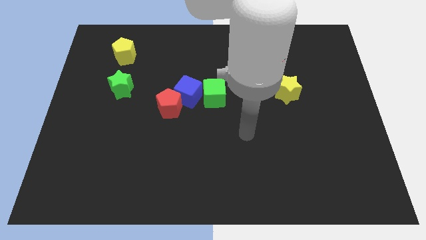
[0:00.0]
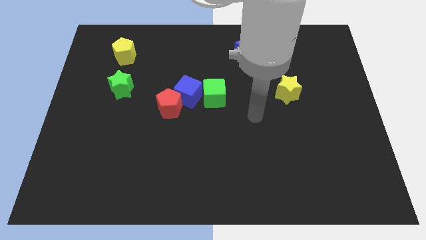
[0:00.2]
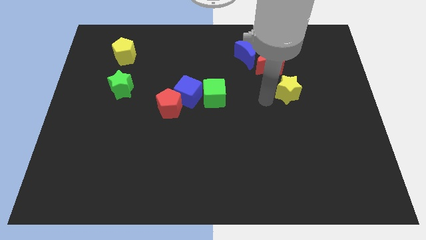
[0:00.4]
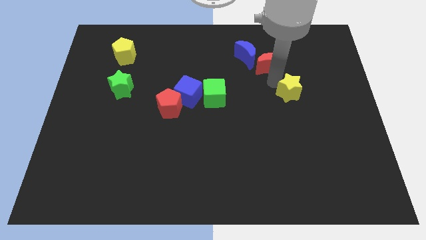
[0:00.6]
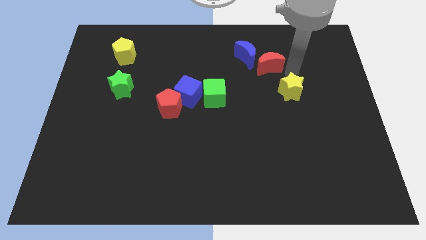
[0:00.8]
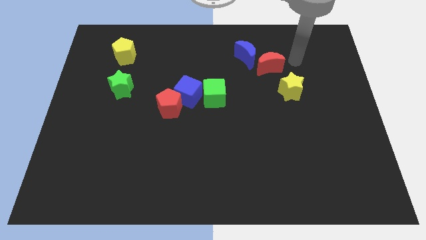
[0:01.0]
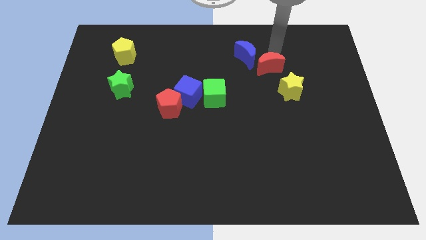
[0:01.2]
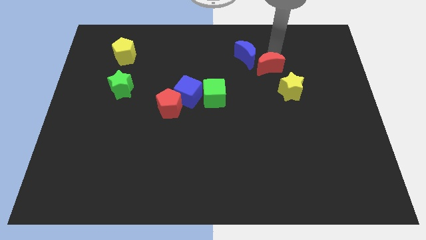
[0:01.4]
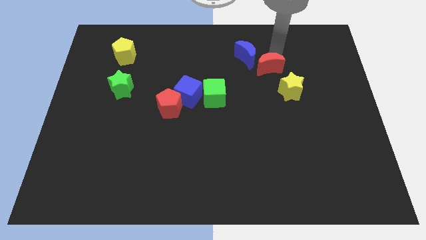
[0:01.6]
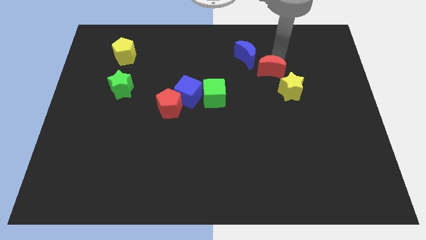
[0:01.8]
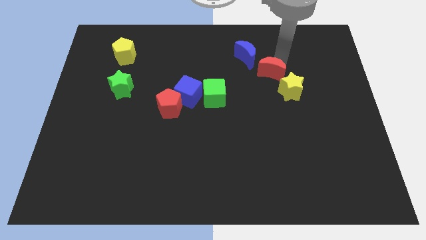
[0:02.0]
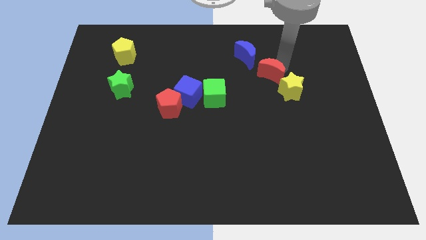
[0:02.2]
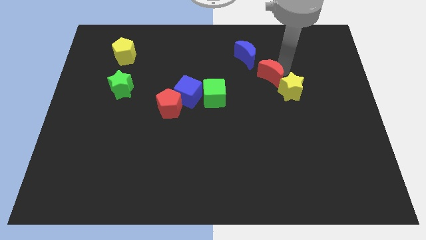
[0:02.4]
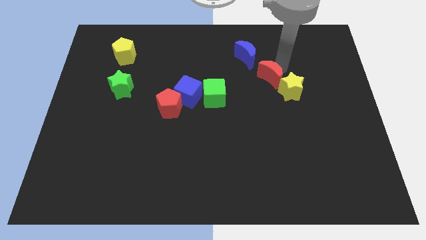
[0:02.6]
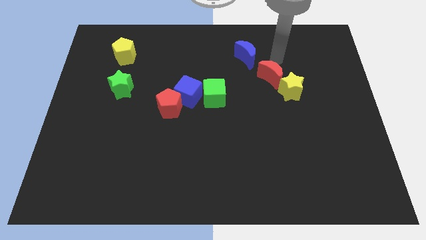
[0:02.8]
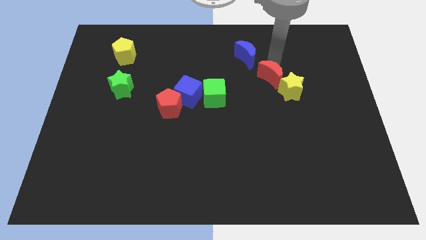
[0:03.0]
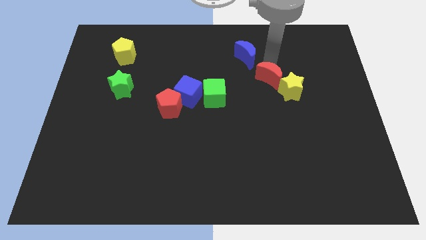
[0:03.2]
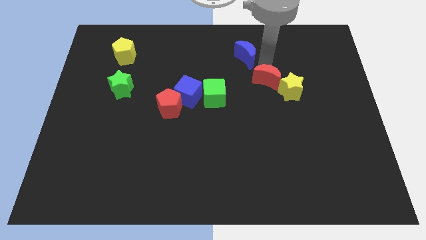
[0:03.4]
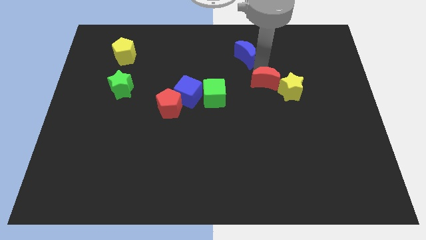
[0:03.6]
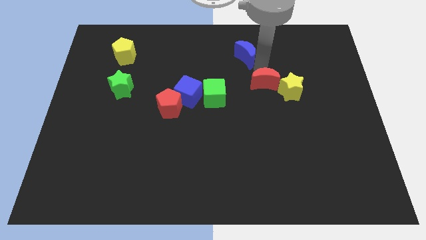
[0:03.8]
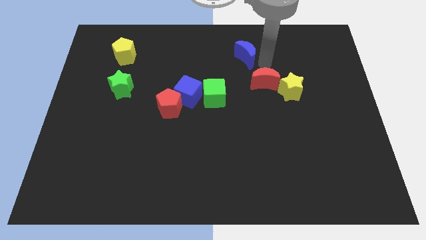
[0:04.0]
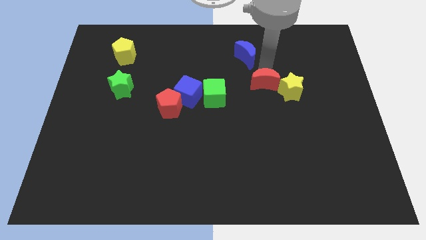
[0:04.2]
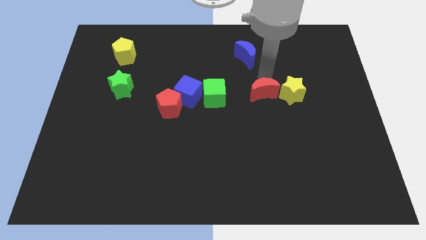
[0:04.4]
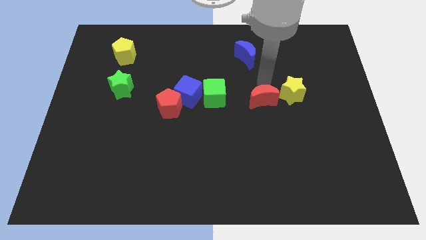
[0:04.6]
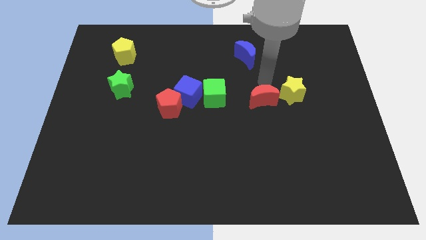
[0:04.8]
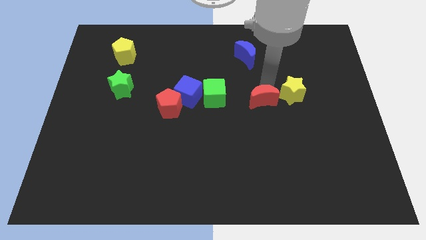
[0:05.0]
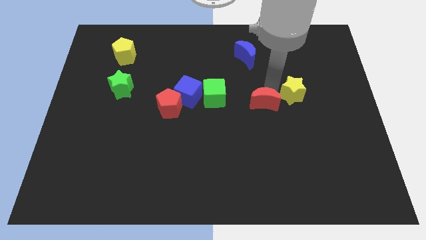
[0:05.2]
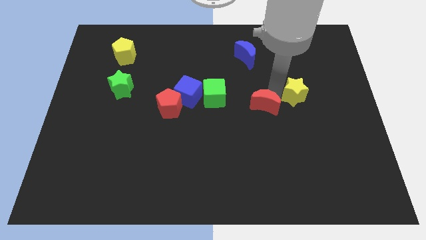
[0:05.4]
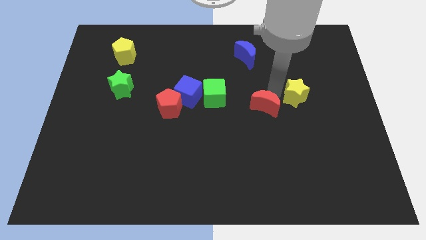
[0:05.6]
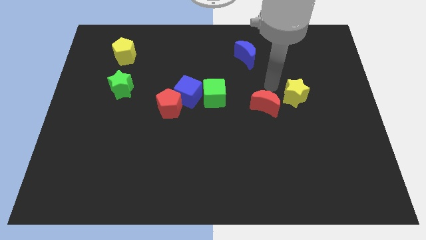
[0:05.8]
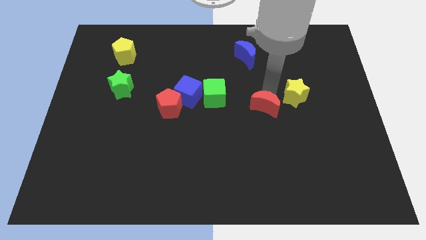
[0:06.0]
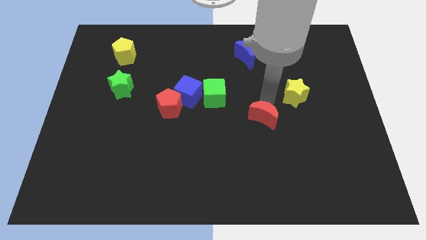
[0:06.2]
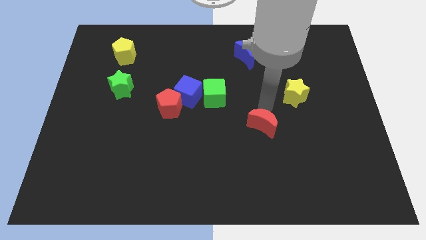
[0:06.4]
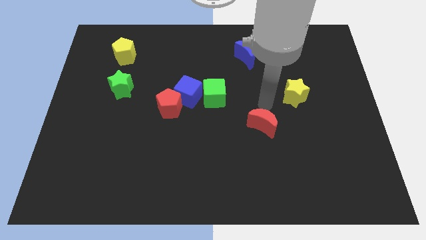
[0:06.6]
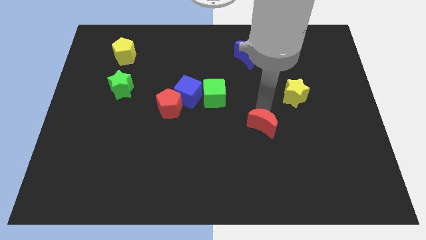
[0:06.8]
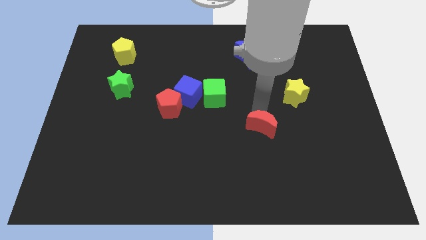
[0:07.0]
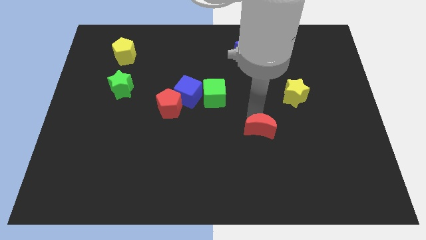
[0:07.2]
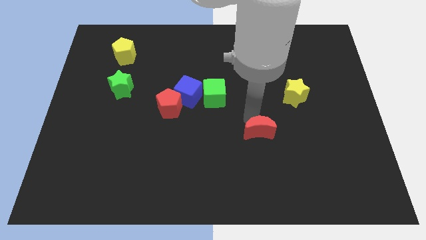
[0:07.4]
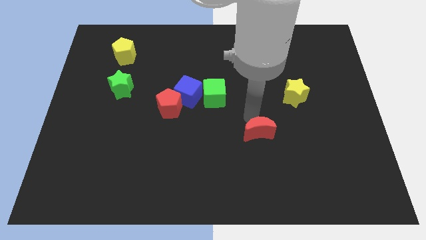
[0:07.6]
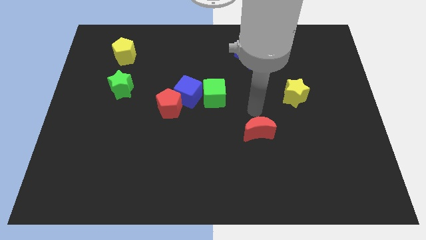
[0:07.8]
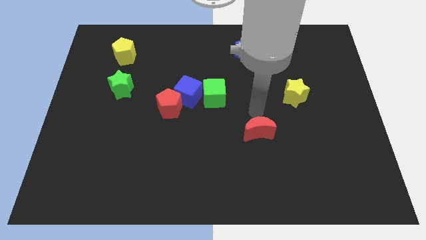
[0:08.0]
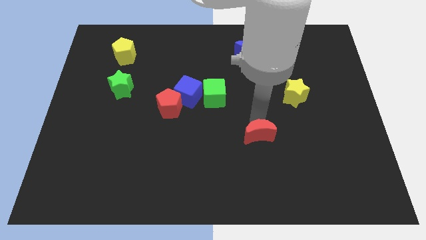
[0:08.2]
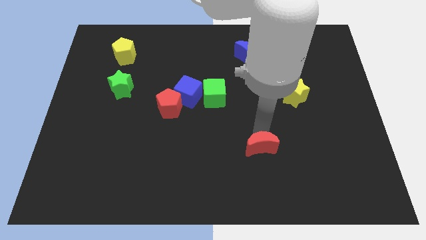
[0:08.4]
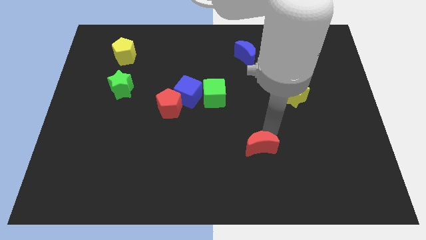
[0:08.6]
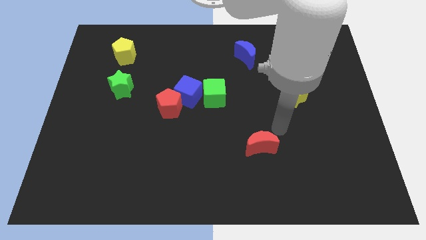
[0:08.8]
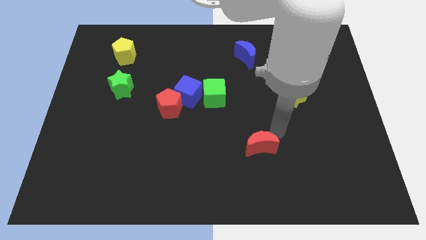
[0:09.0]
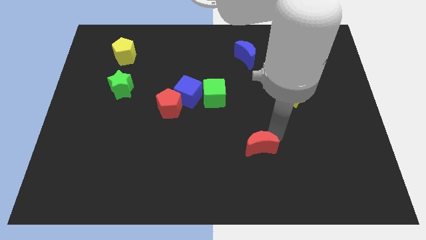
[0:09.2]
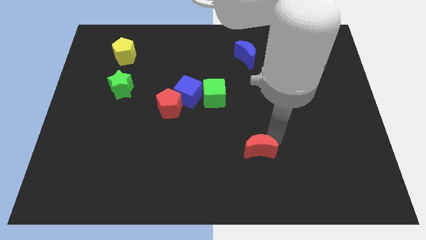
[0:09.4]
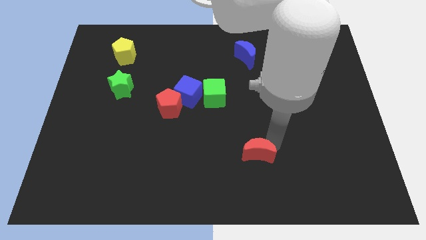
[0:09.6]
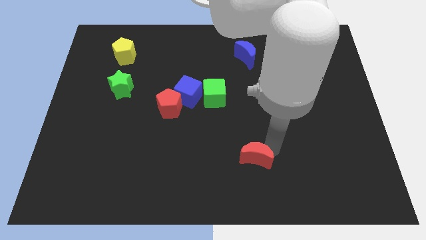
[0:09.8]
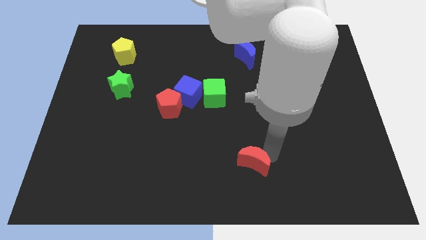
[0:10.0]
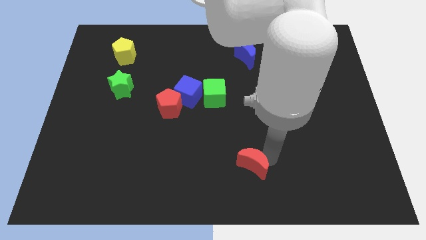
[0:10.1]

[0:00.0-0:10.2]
slide the red moon to the bottom

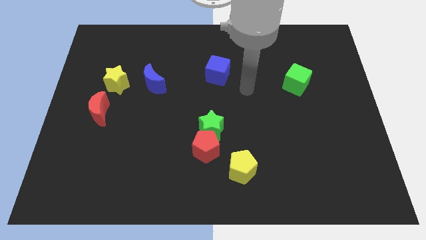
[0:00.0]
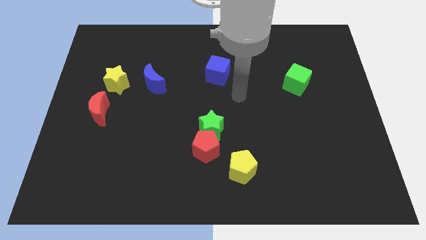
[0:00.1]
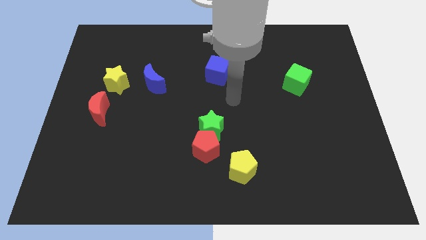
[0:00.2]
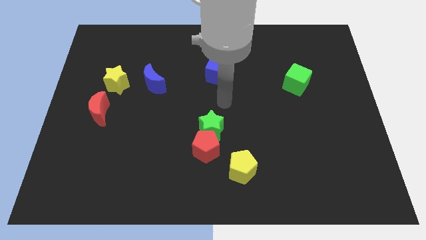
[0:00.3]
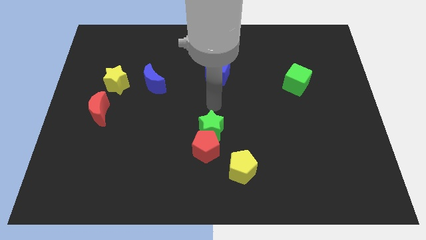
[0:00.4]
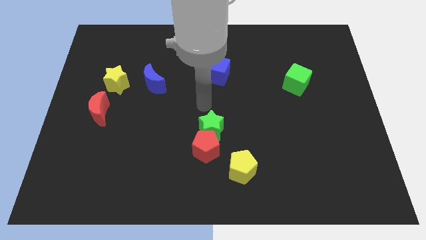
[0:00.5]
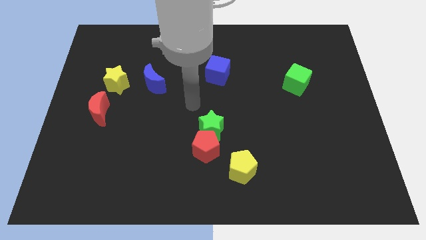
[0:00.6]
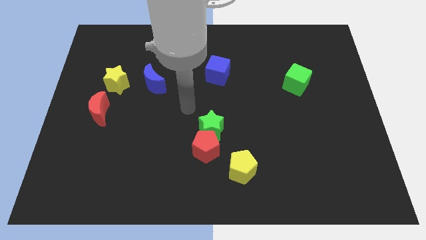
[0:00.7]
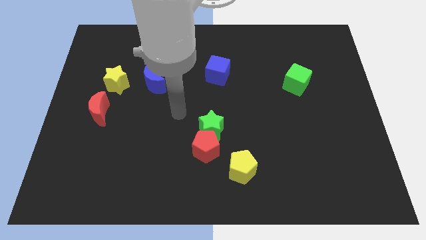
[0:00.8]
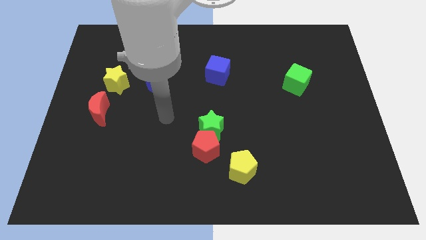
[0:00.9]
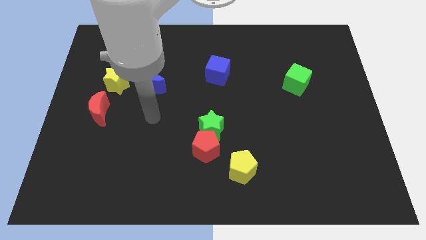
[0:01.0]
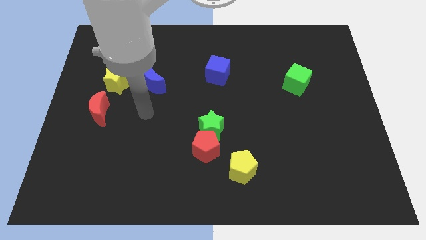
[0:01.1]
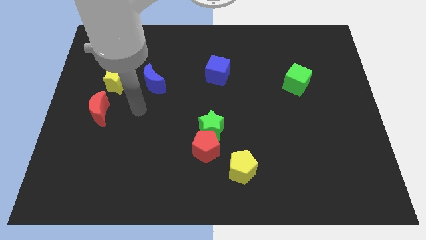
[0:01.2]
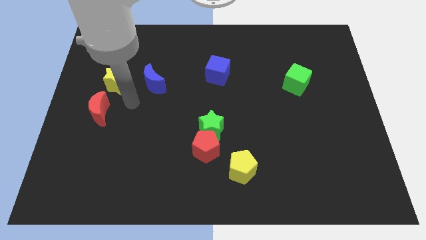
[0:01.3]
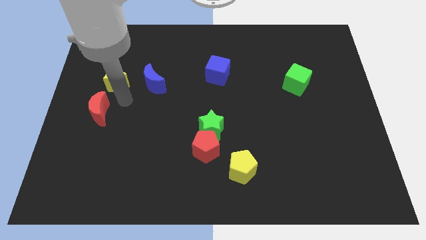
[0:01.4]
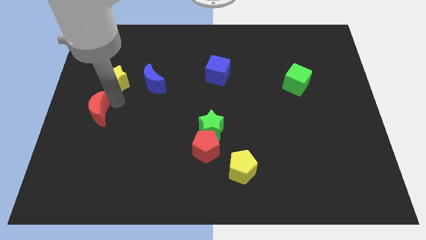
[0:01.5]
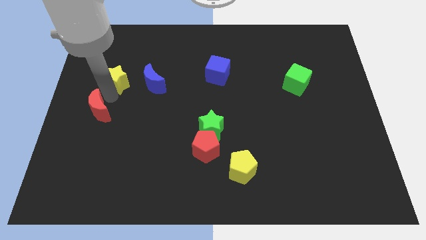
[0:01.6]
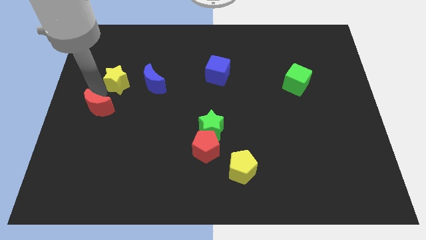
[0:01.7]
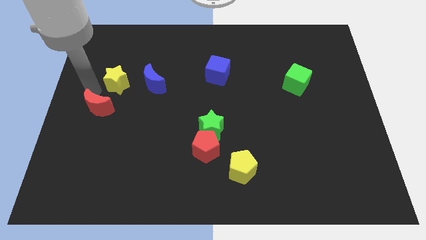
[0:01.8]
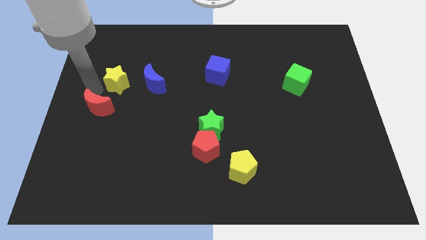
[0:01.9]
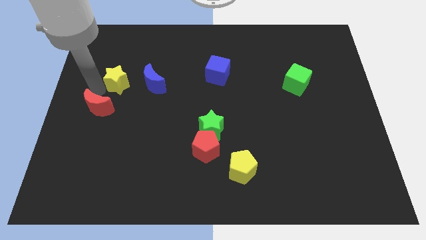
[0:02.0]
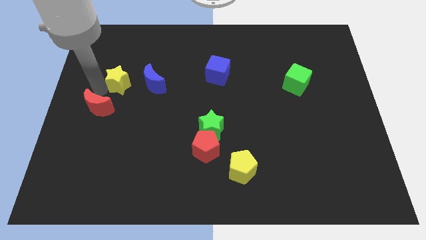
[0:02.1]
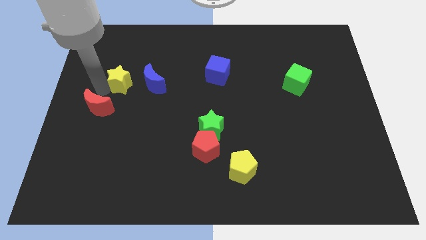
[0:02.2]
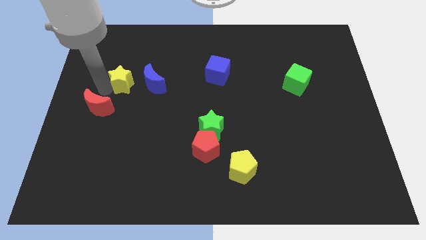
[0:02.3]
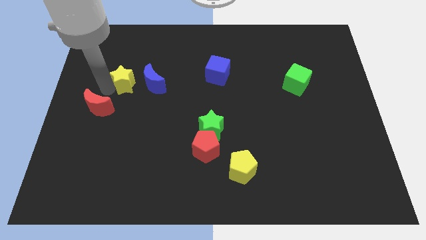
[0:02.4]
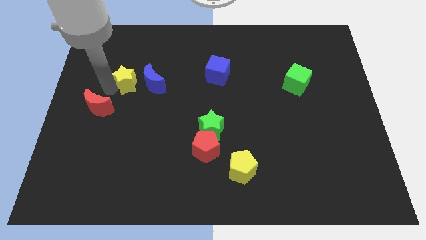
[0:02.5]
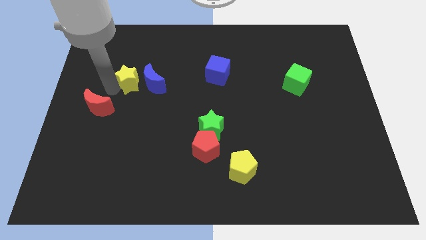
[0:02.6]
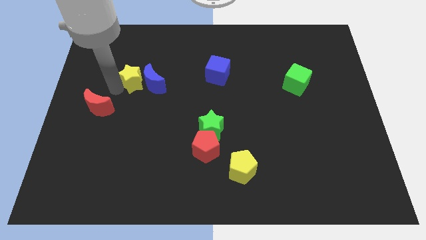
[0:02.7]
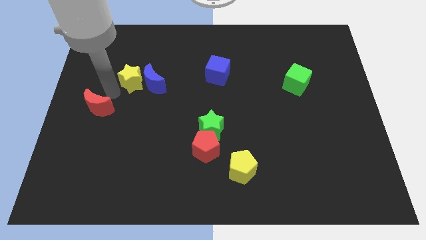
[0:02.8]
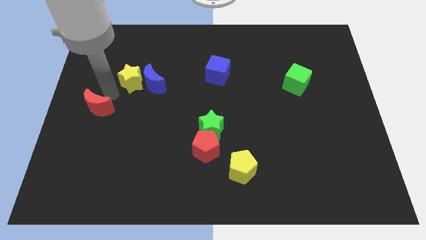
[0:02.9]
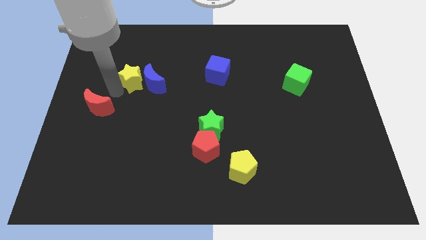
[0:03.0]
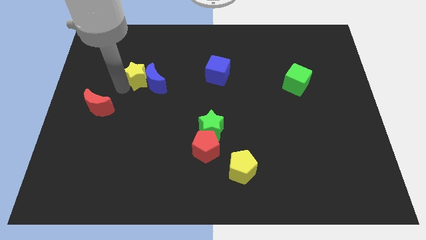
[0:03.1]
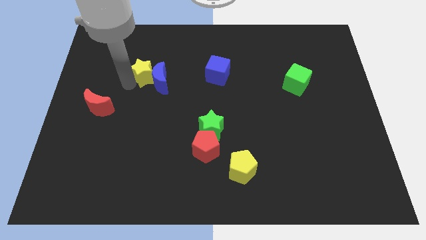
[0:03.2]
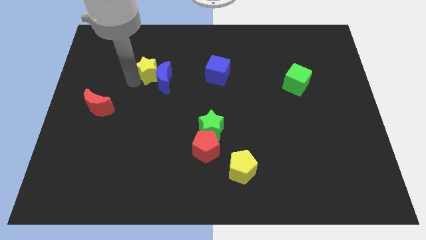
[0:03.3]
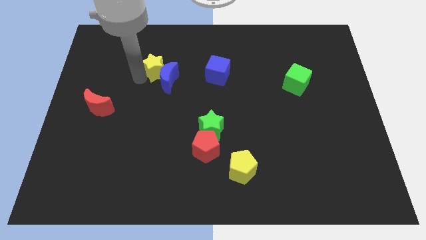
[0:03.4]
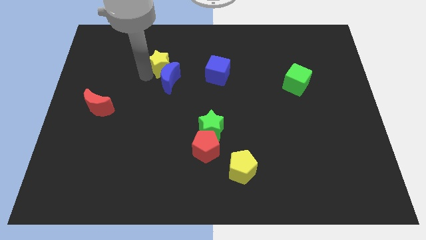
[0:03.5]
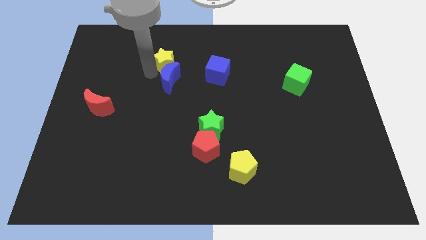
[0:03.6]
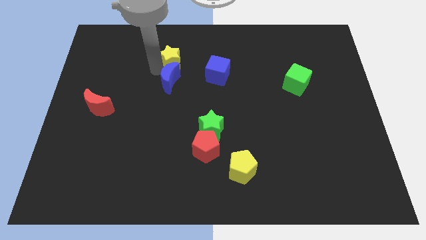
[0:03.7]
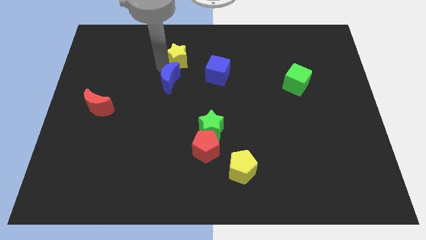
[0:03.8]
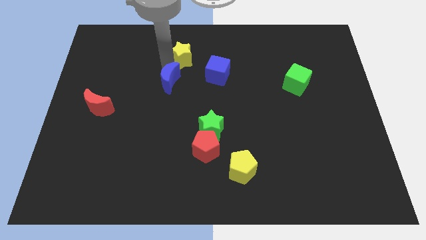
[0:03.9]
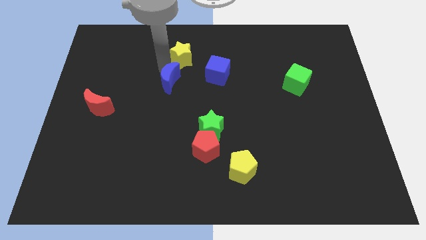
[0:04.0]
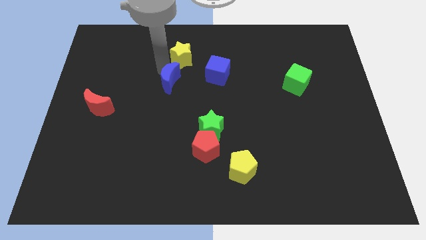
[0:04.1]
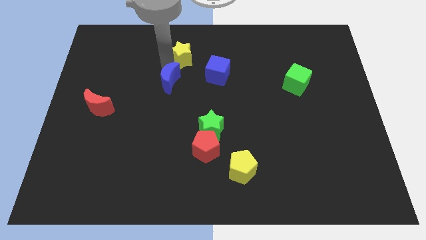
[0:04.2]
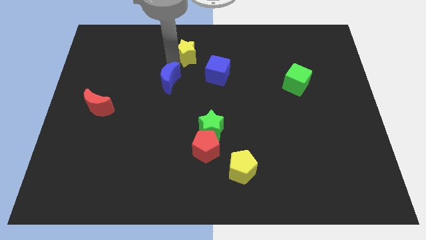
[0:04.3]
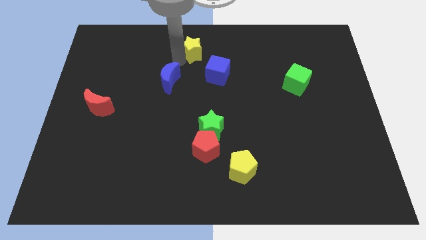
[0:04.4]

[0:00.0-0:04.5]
move the yellow star to the towards your base
